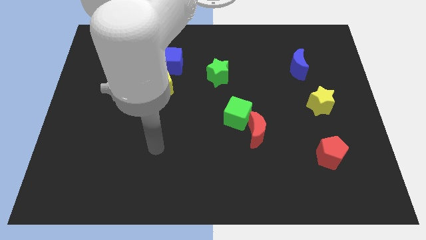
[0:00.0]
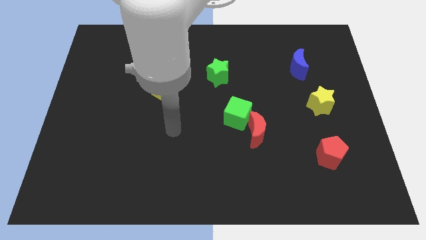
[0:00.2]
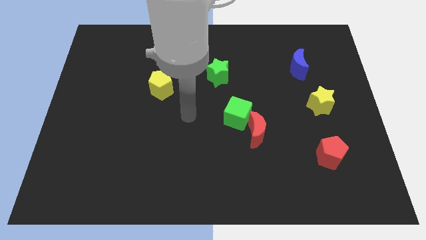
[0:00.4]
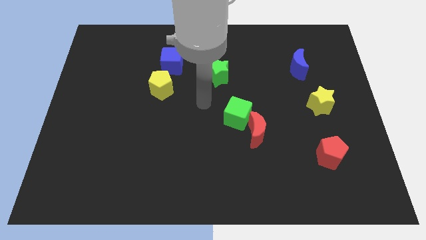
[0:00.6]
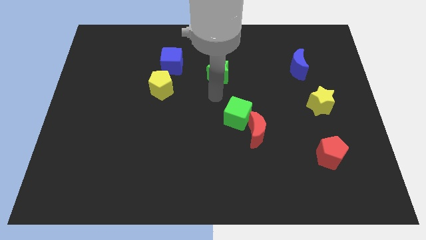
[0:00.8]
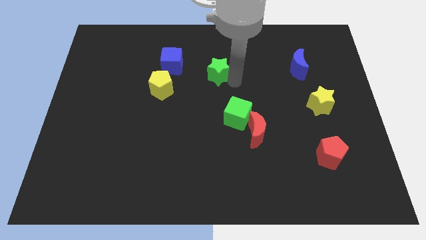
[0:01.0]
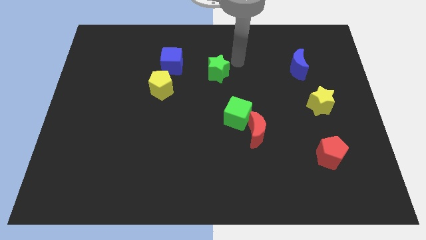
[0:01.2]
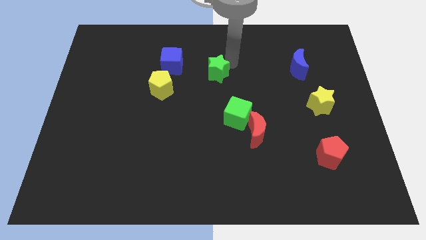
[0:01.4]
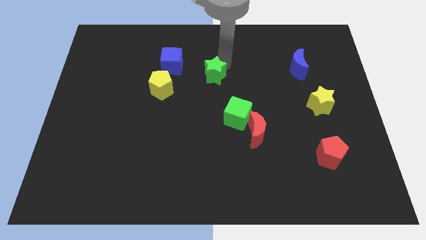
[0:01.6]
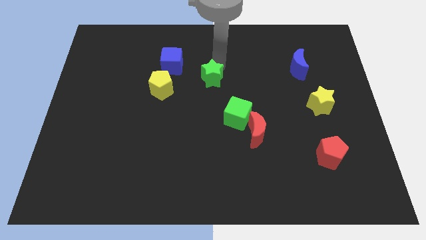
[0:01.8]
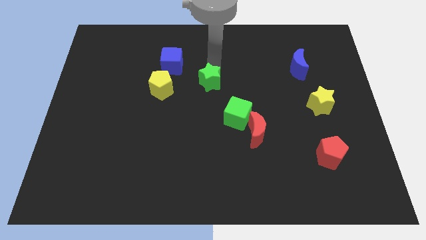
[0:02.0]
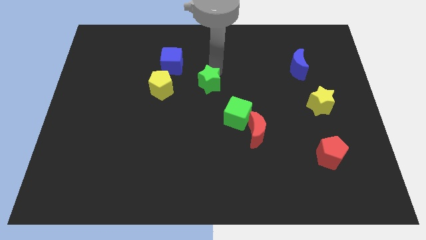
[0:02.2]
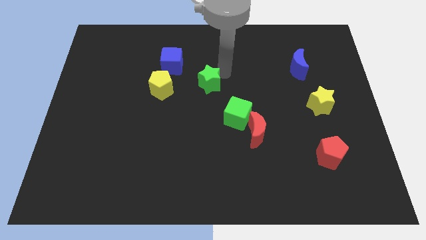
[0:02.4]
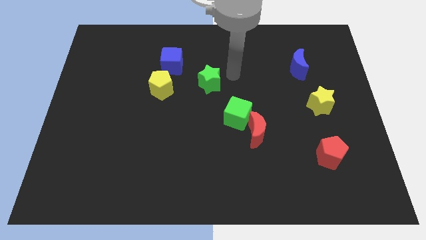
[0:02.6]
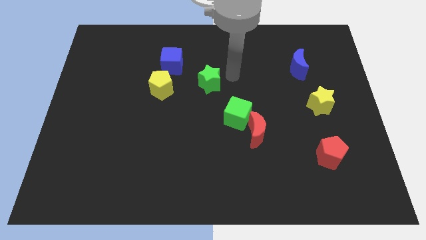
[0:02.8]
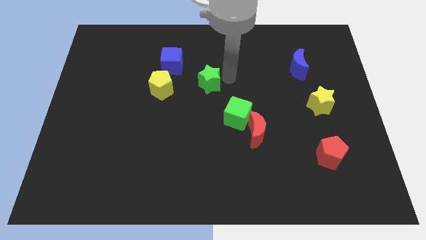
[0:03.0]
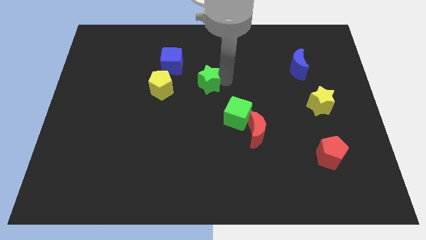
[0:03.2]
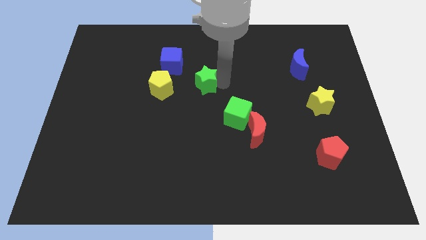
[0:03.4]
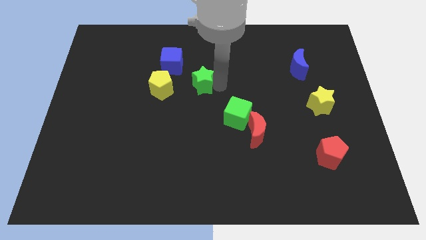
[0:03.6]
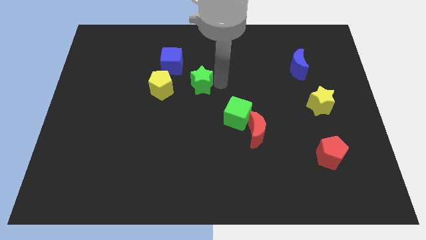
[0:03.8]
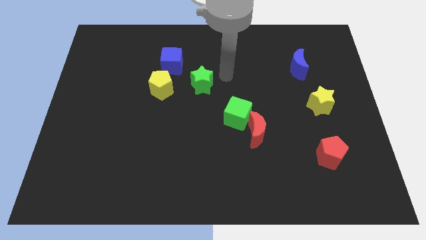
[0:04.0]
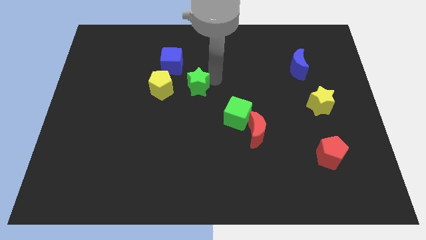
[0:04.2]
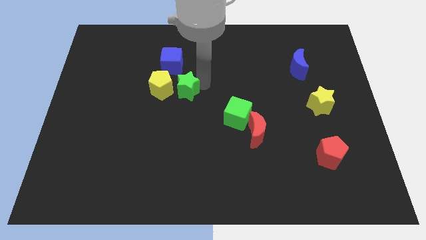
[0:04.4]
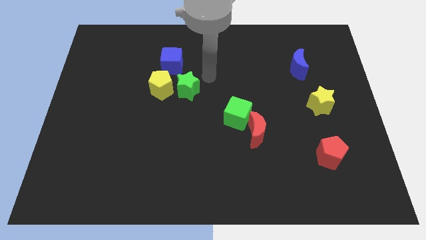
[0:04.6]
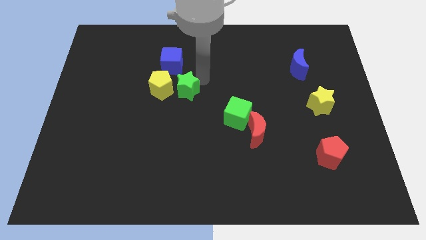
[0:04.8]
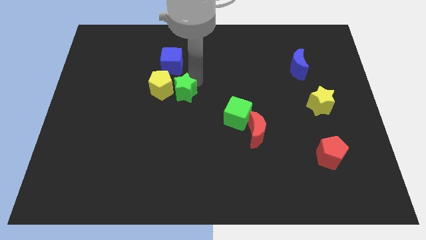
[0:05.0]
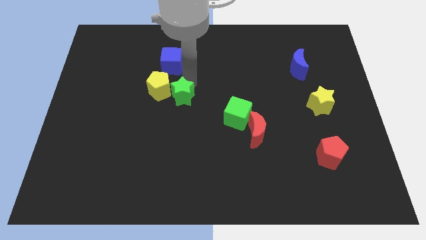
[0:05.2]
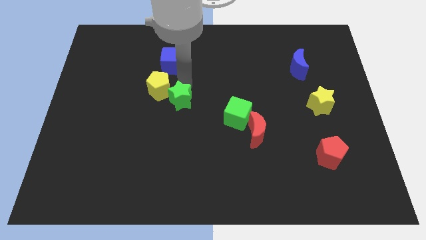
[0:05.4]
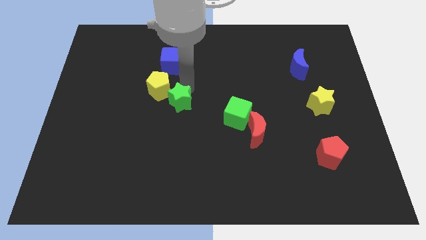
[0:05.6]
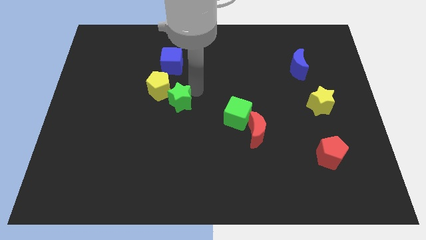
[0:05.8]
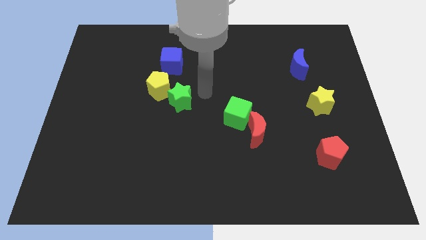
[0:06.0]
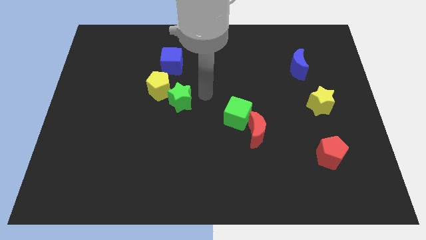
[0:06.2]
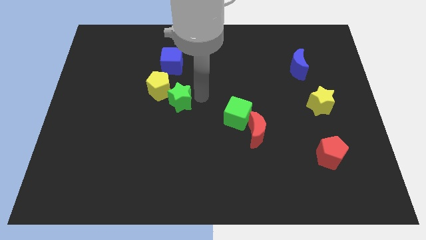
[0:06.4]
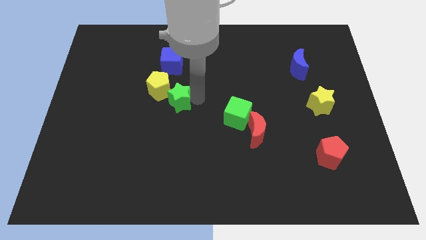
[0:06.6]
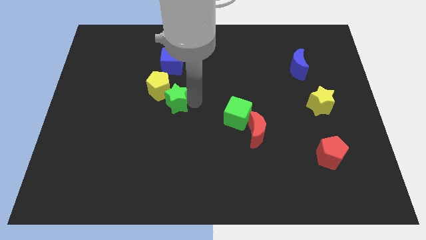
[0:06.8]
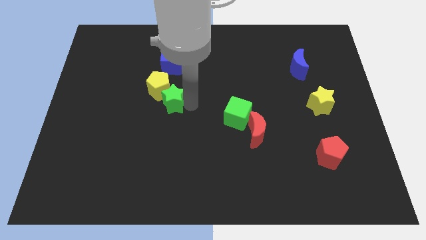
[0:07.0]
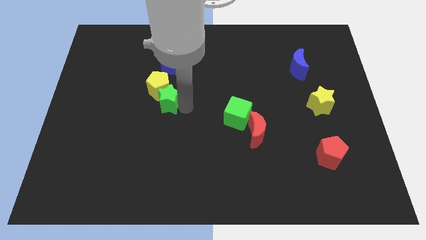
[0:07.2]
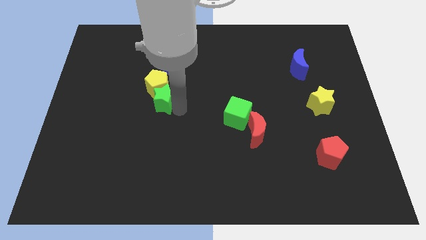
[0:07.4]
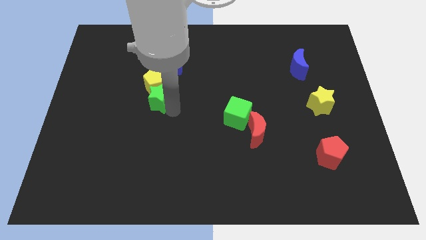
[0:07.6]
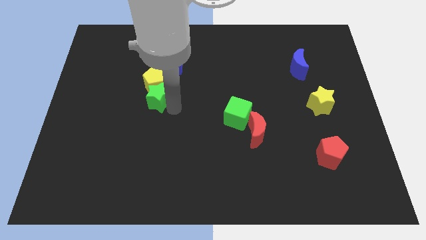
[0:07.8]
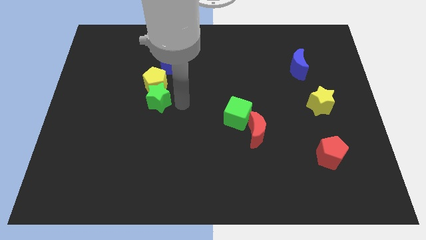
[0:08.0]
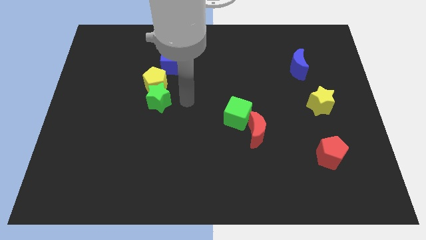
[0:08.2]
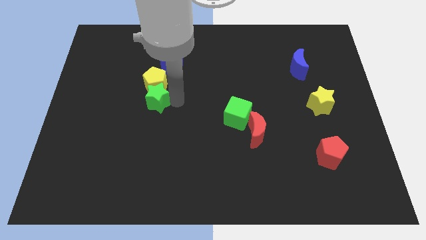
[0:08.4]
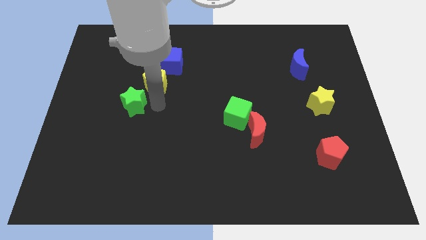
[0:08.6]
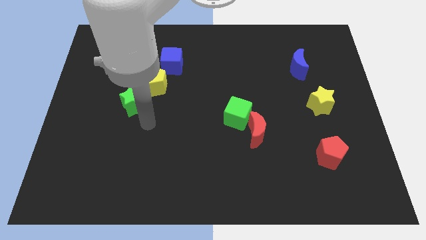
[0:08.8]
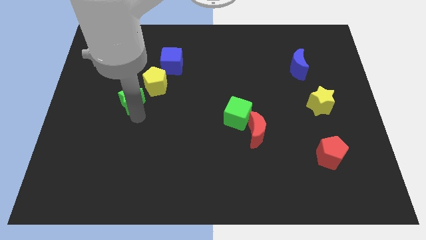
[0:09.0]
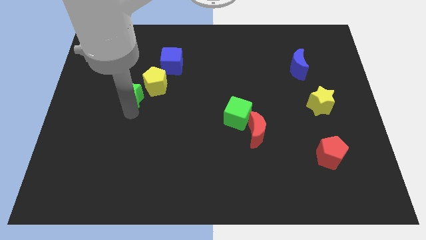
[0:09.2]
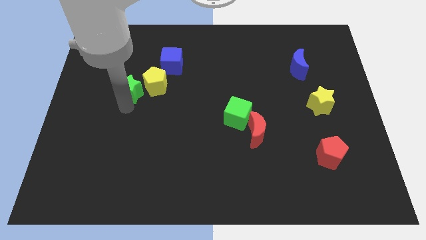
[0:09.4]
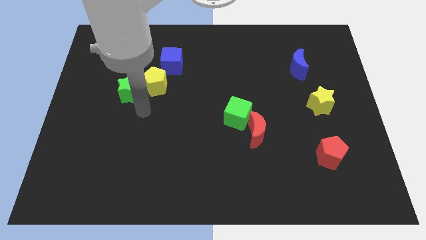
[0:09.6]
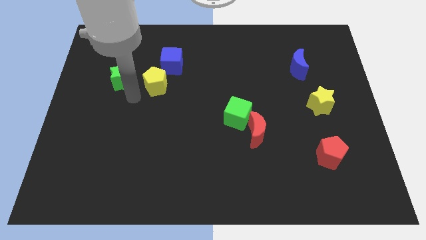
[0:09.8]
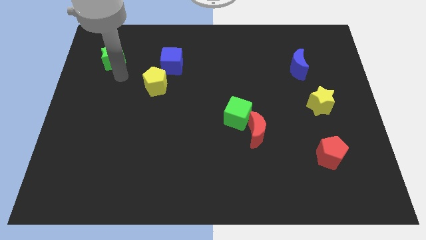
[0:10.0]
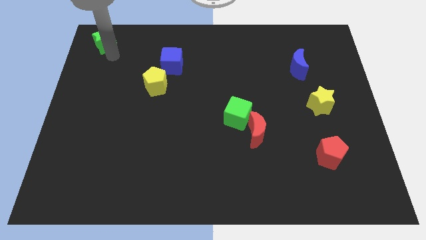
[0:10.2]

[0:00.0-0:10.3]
put the green star to the top left of the board

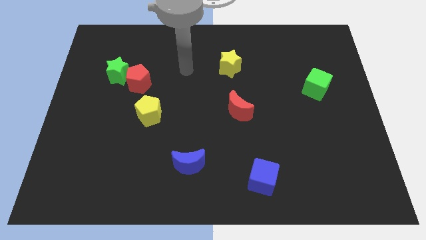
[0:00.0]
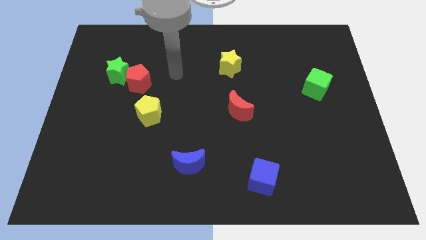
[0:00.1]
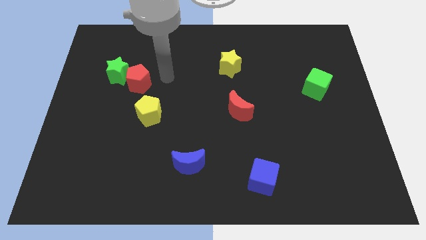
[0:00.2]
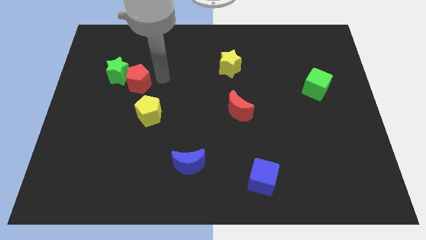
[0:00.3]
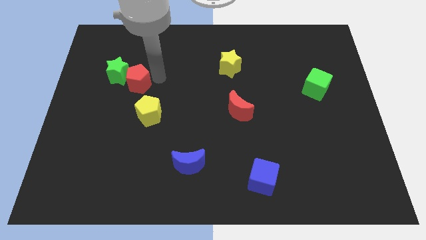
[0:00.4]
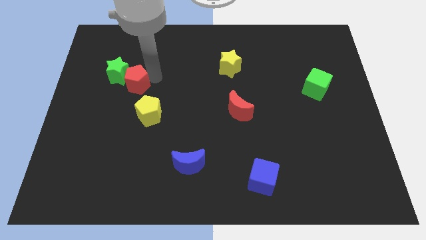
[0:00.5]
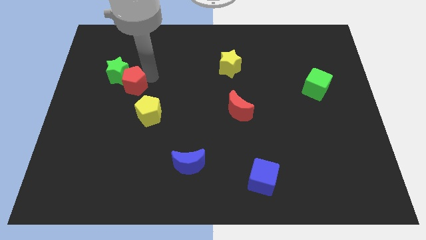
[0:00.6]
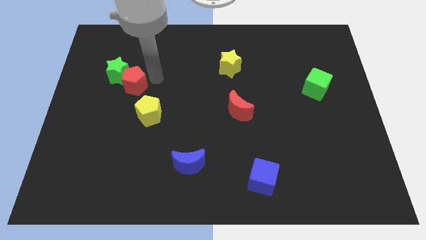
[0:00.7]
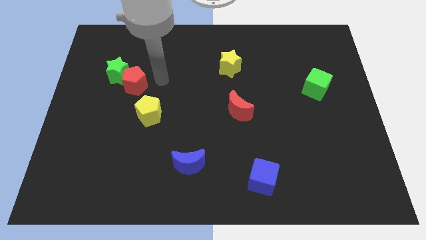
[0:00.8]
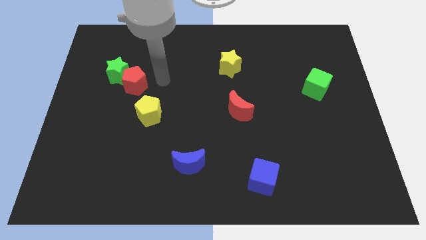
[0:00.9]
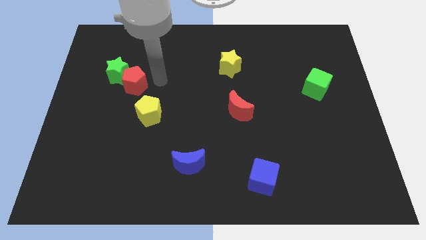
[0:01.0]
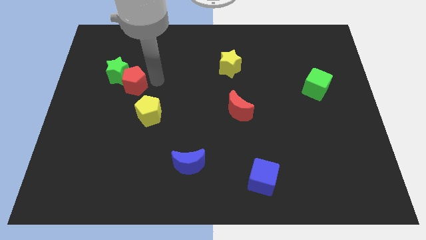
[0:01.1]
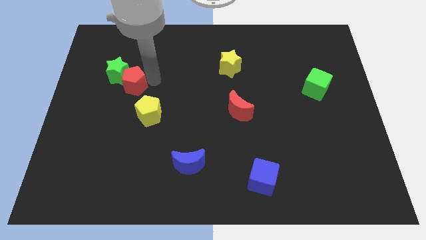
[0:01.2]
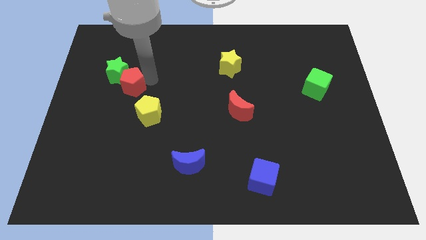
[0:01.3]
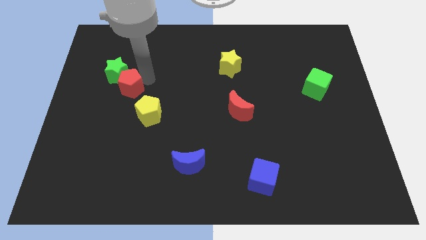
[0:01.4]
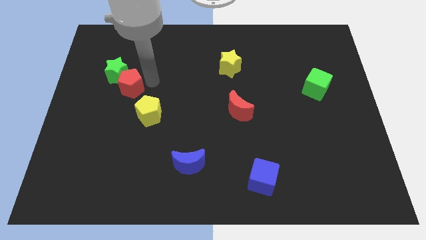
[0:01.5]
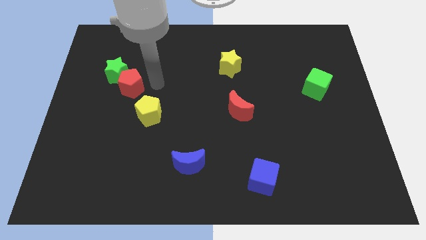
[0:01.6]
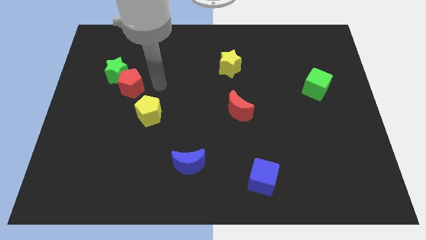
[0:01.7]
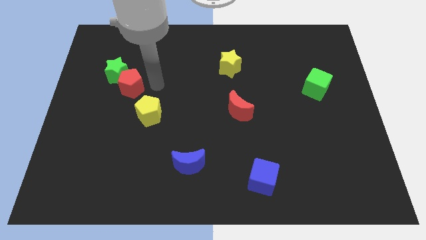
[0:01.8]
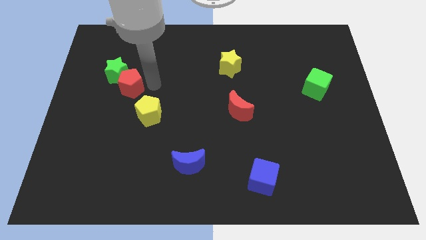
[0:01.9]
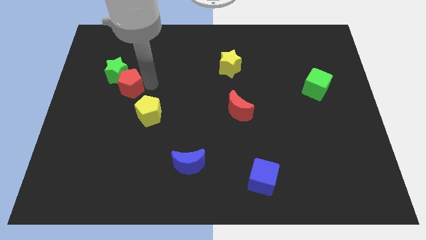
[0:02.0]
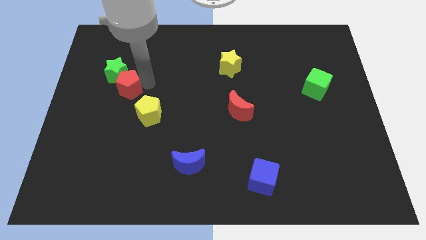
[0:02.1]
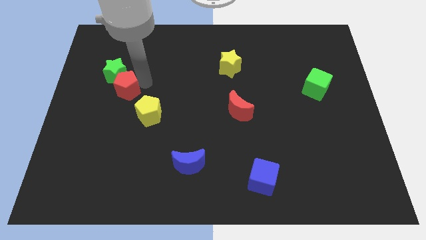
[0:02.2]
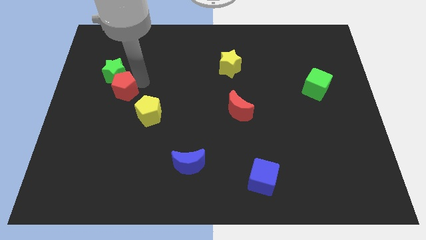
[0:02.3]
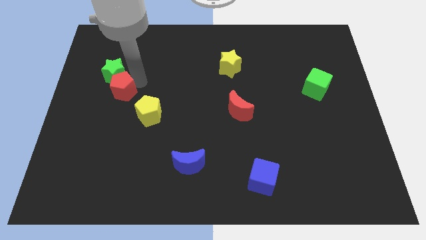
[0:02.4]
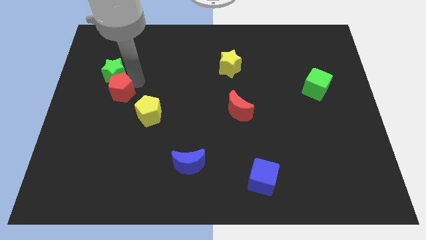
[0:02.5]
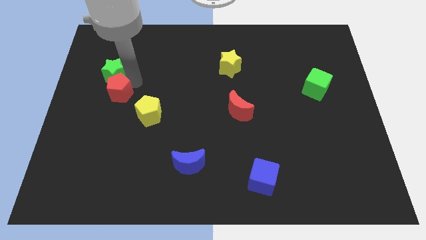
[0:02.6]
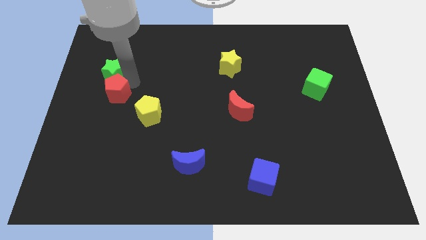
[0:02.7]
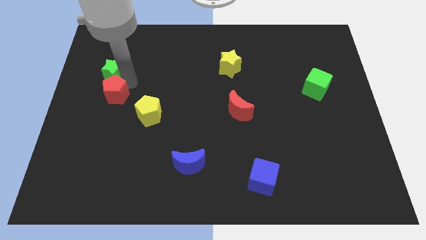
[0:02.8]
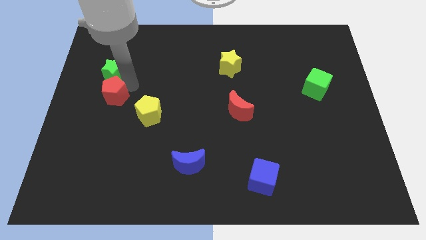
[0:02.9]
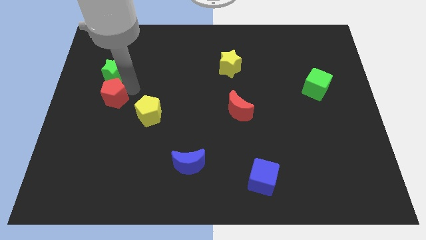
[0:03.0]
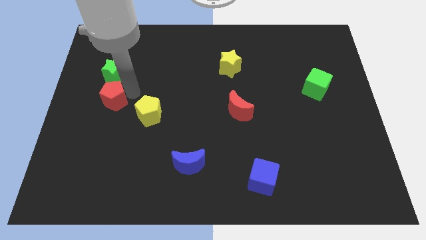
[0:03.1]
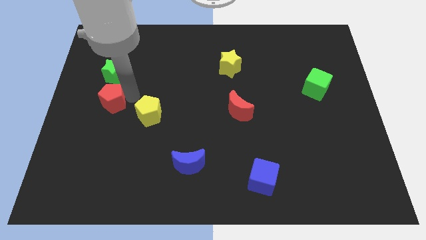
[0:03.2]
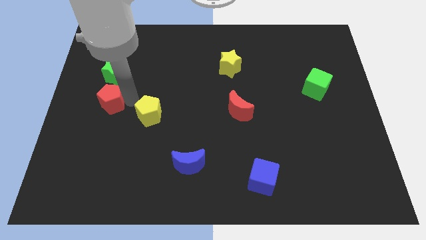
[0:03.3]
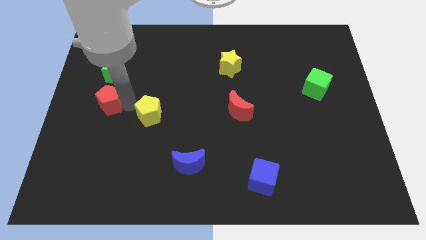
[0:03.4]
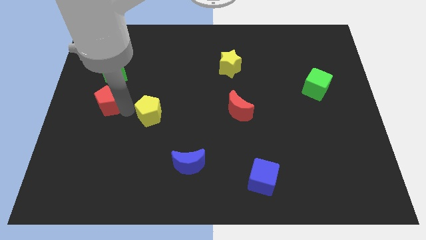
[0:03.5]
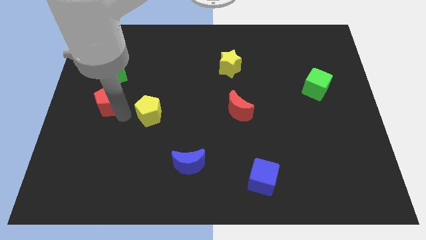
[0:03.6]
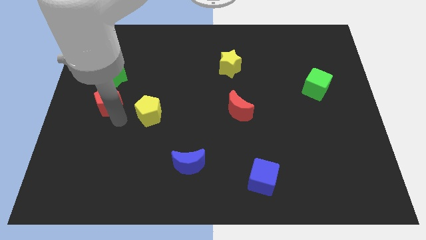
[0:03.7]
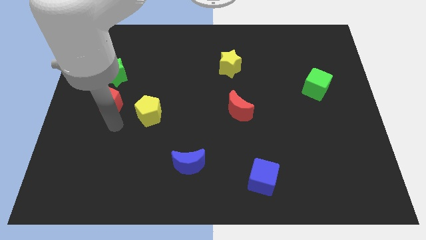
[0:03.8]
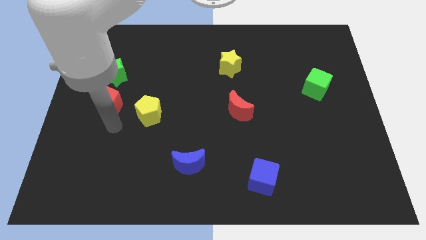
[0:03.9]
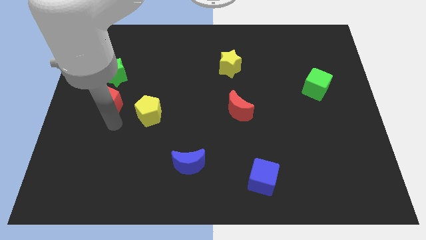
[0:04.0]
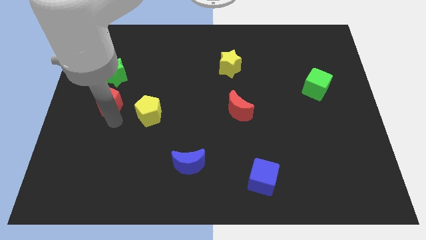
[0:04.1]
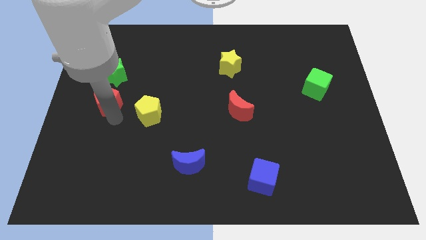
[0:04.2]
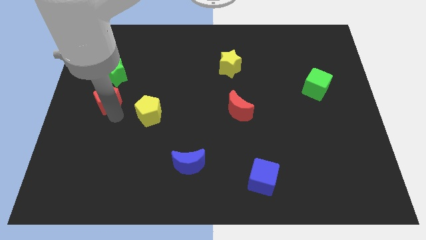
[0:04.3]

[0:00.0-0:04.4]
put the red pentagon to the left side
